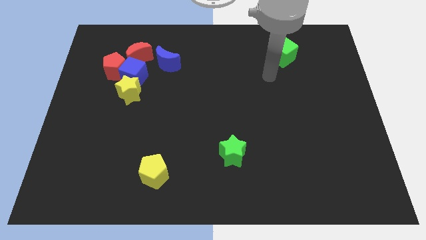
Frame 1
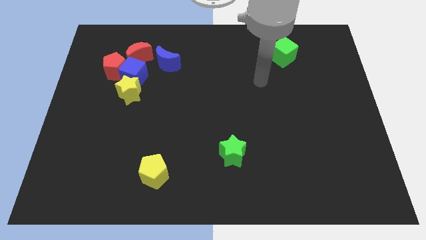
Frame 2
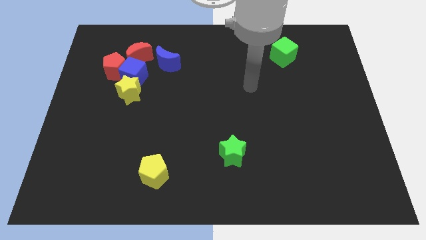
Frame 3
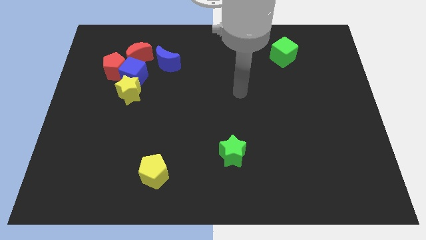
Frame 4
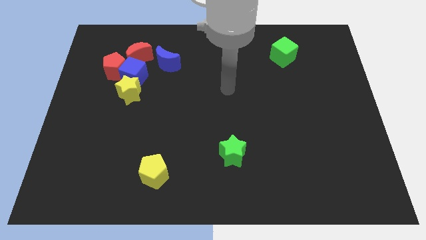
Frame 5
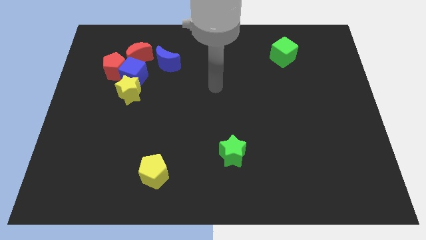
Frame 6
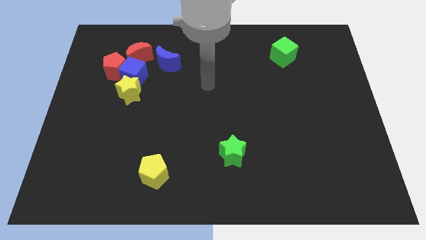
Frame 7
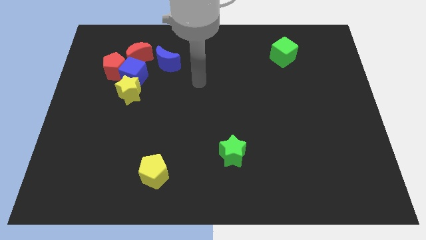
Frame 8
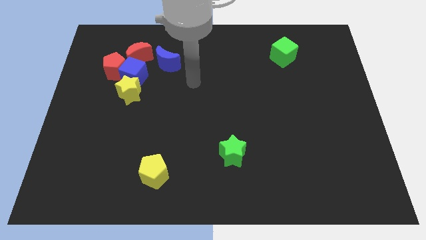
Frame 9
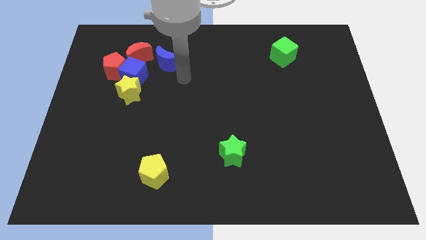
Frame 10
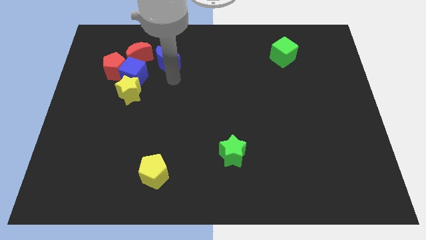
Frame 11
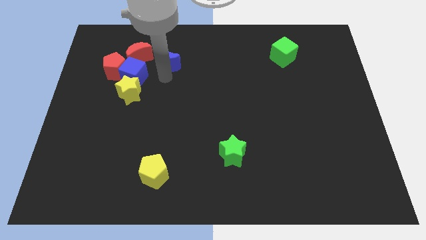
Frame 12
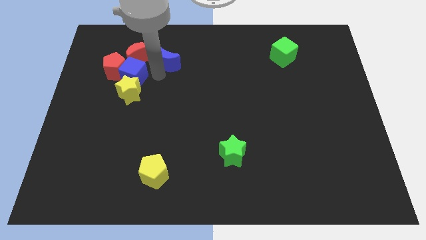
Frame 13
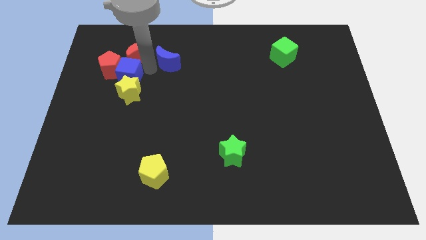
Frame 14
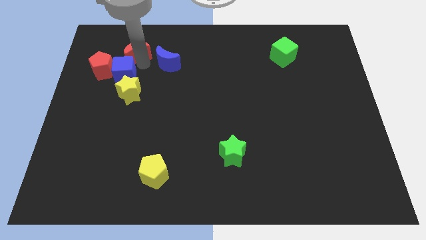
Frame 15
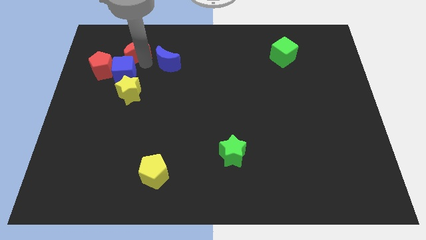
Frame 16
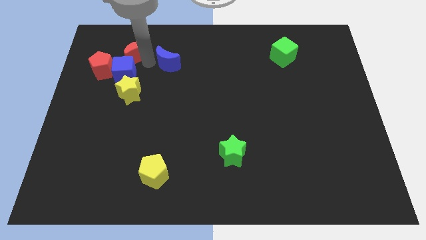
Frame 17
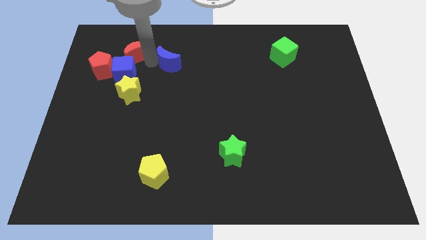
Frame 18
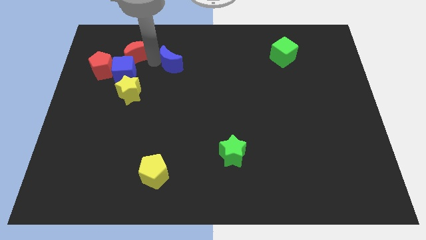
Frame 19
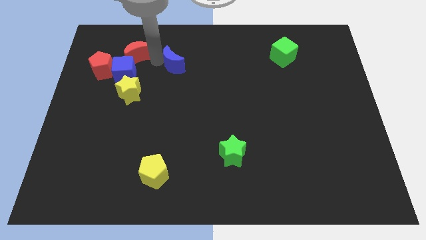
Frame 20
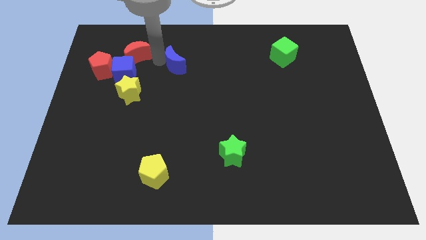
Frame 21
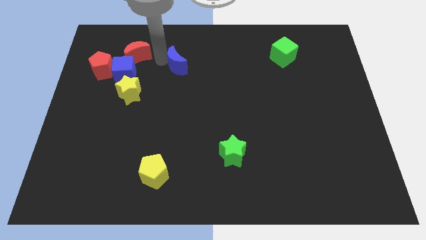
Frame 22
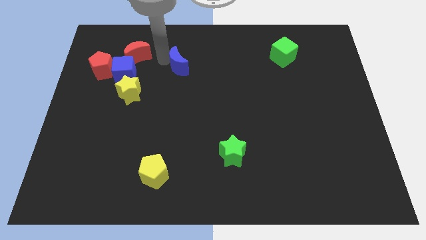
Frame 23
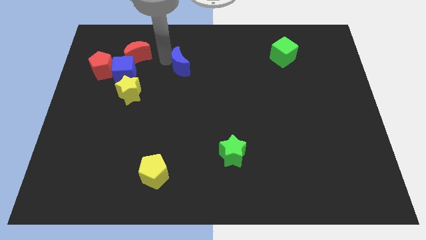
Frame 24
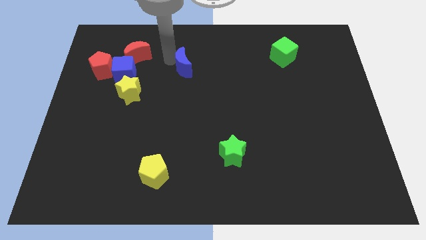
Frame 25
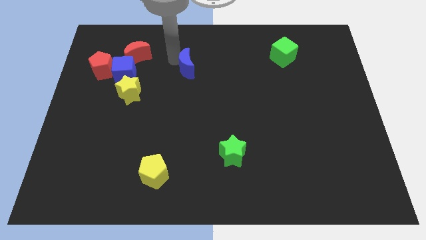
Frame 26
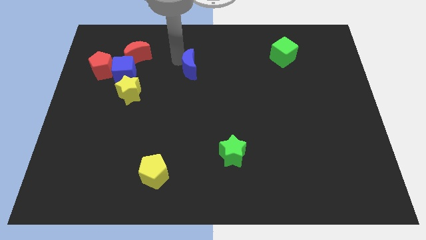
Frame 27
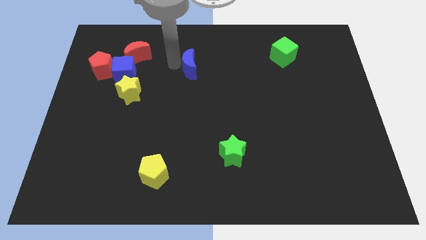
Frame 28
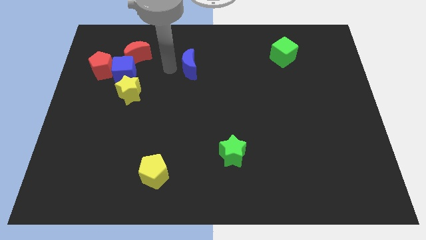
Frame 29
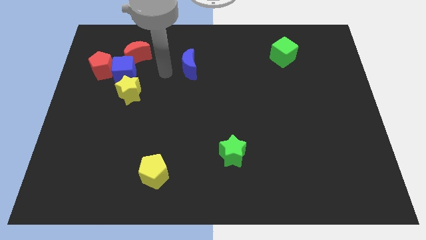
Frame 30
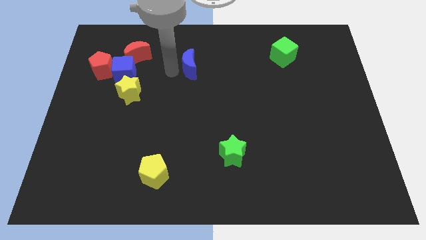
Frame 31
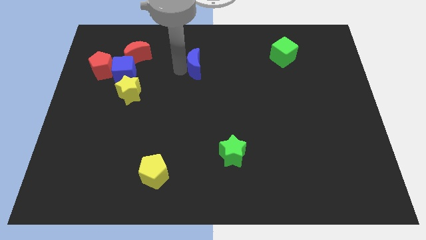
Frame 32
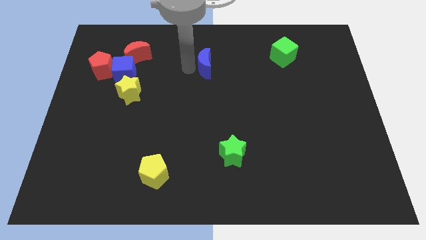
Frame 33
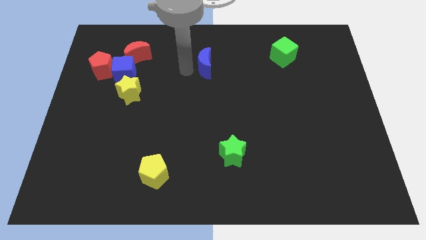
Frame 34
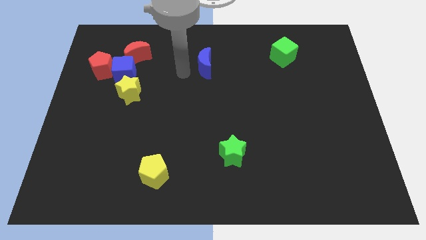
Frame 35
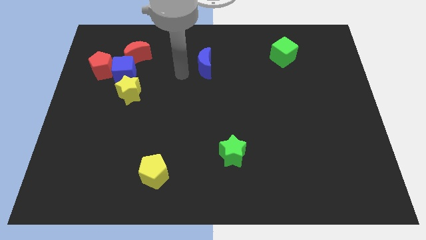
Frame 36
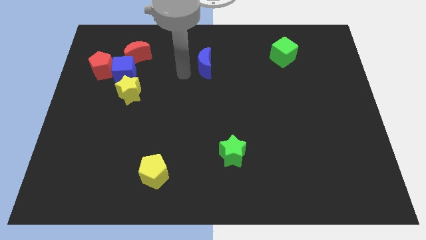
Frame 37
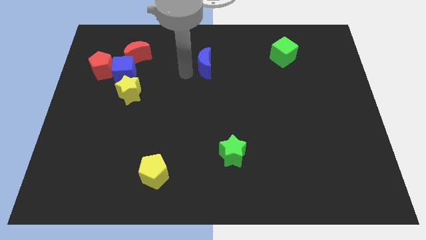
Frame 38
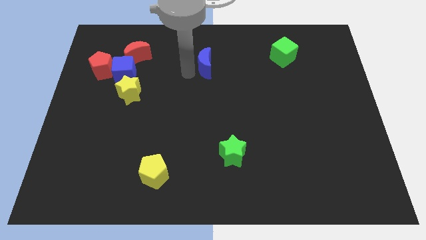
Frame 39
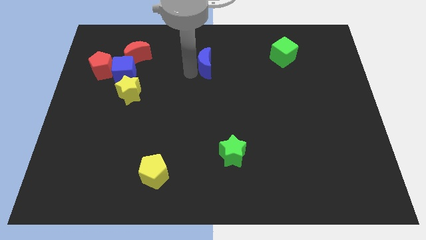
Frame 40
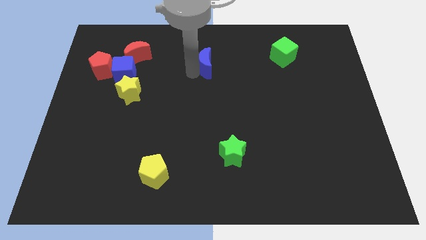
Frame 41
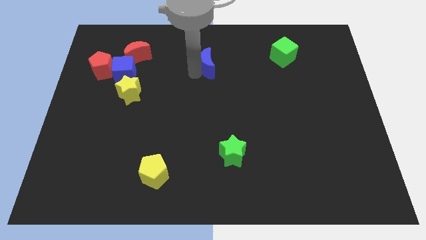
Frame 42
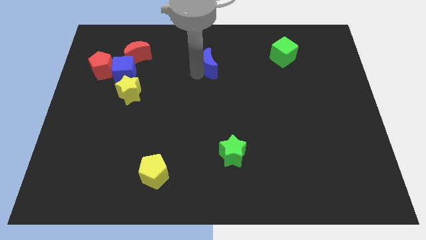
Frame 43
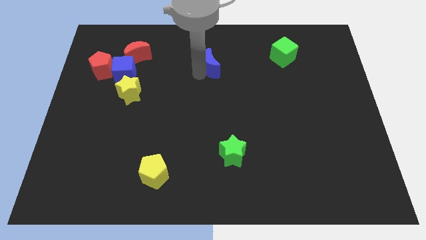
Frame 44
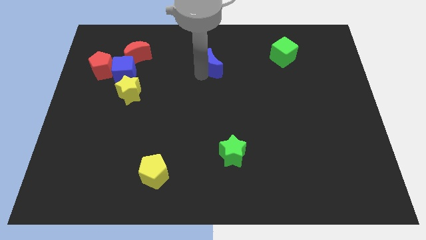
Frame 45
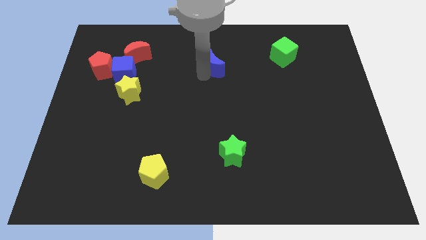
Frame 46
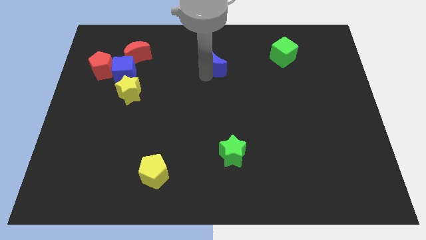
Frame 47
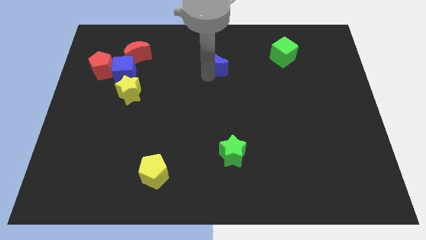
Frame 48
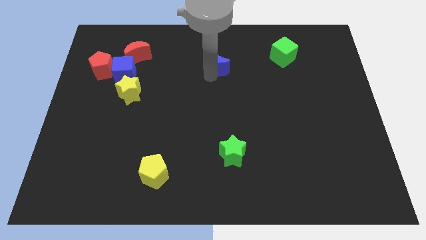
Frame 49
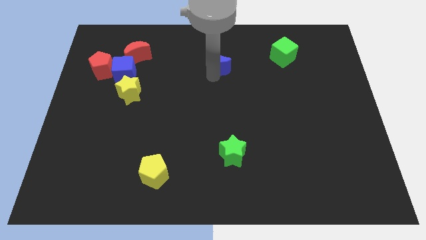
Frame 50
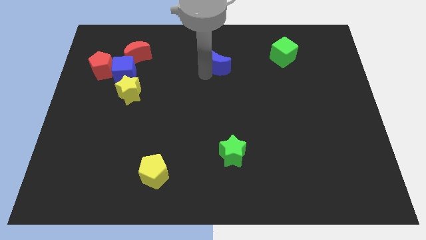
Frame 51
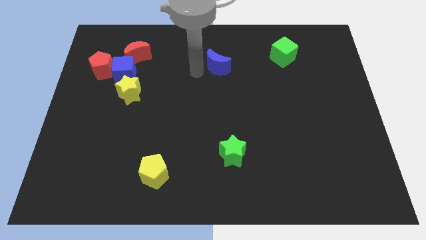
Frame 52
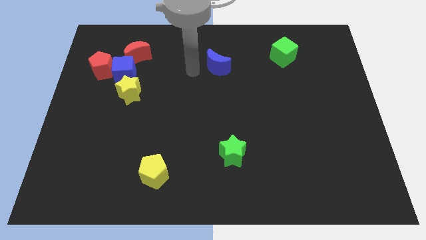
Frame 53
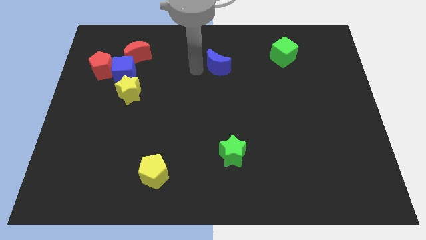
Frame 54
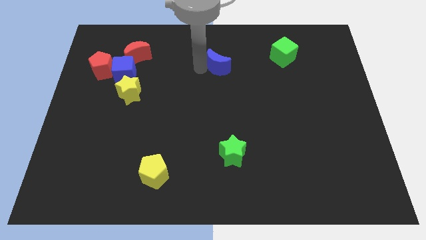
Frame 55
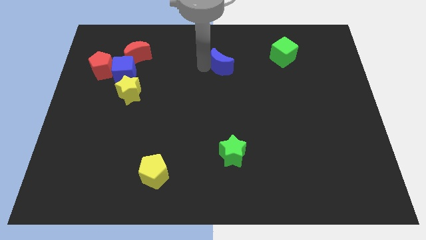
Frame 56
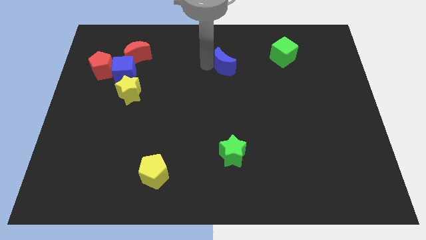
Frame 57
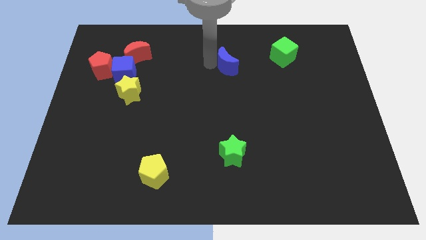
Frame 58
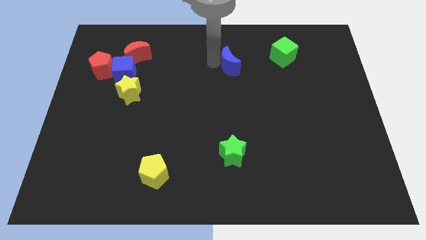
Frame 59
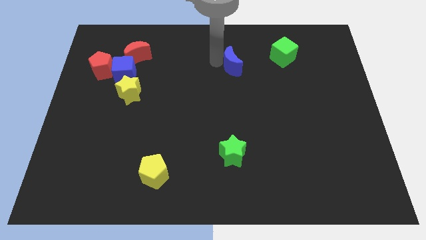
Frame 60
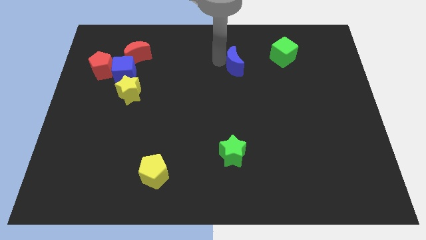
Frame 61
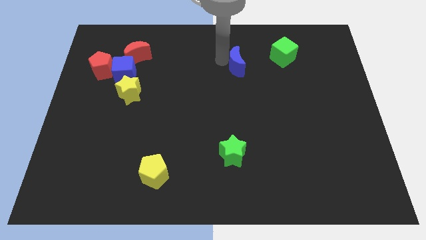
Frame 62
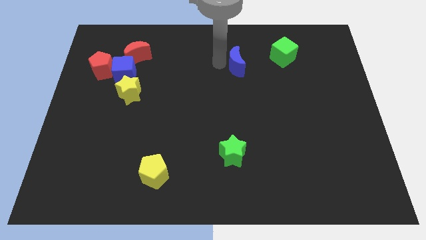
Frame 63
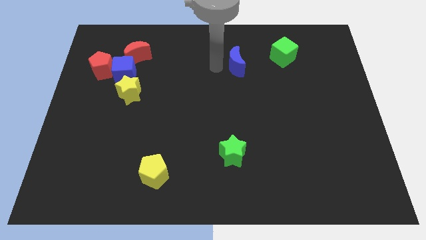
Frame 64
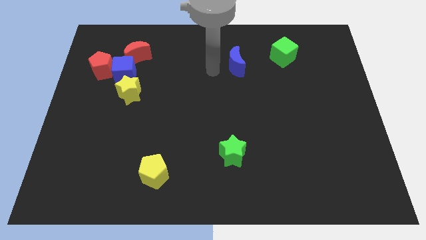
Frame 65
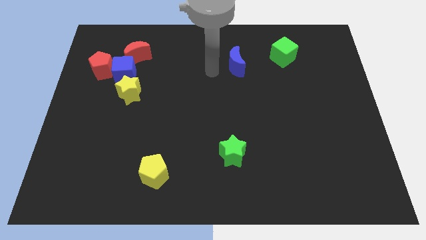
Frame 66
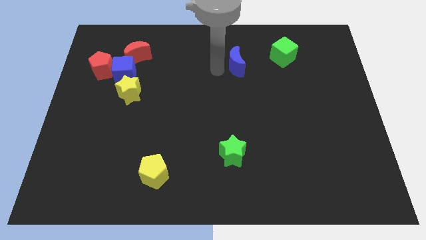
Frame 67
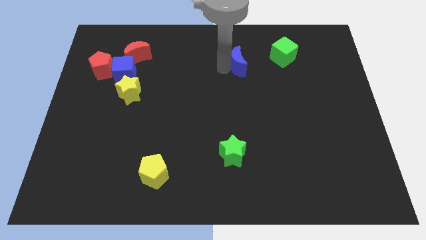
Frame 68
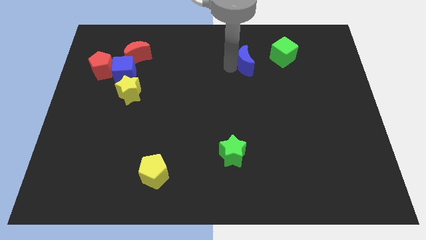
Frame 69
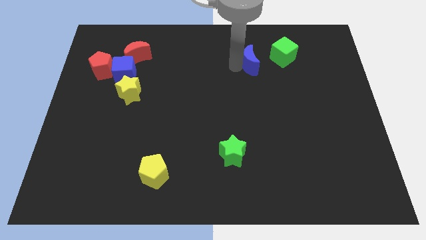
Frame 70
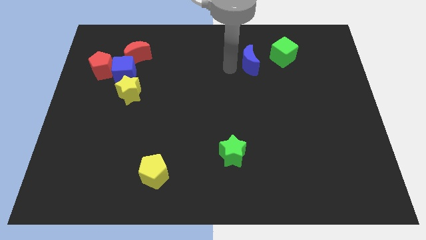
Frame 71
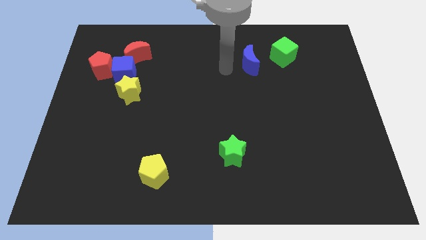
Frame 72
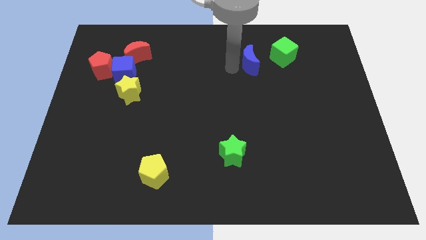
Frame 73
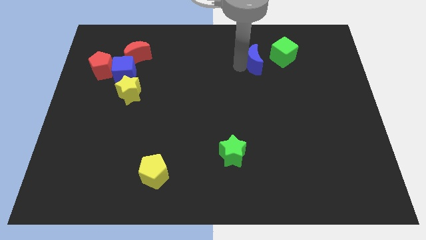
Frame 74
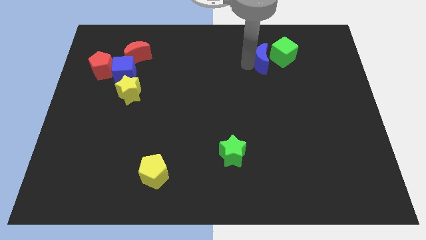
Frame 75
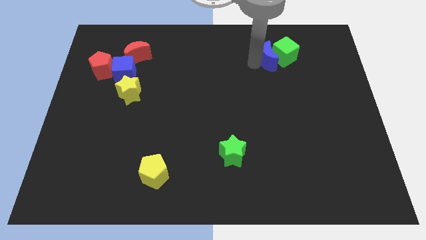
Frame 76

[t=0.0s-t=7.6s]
put the blue moon to the green cube
